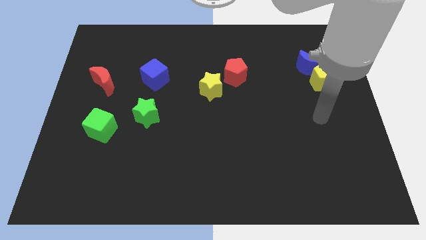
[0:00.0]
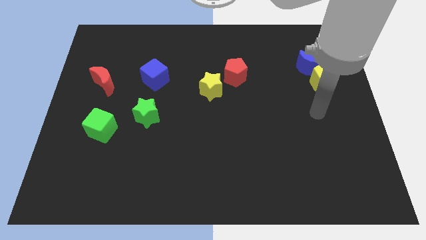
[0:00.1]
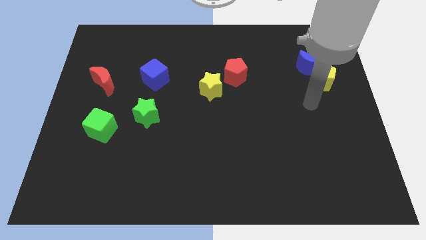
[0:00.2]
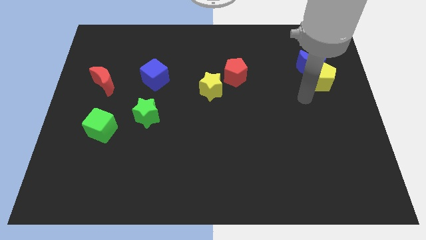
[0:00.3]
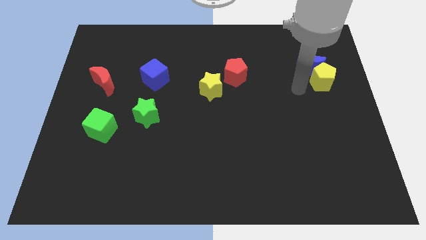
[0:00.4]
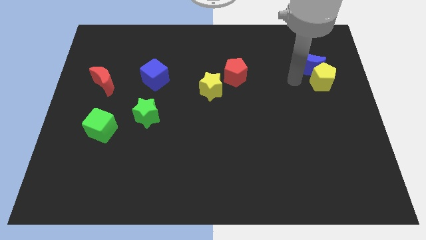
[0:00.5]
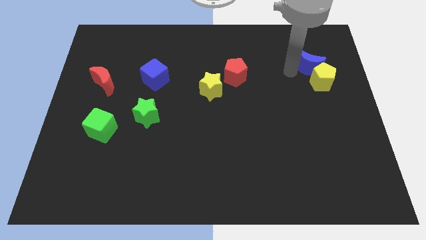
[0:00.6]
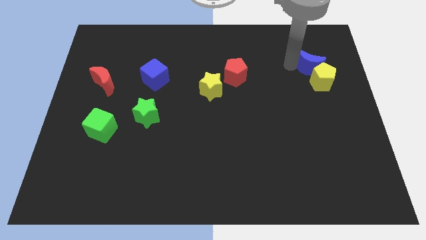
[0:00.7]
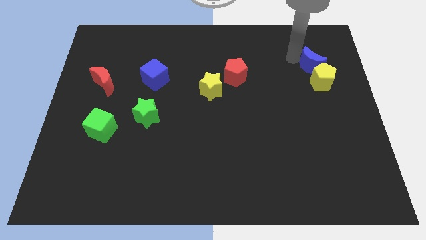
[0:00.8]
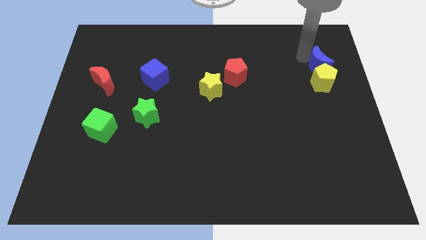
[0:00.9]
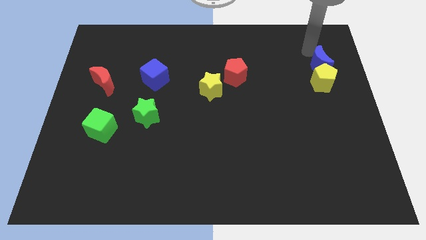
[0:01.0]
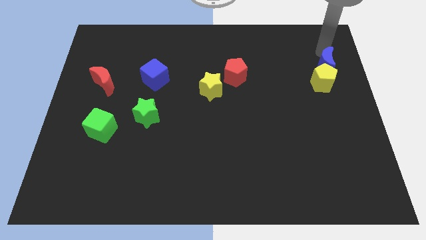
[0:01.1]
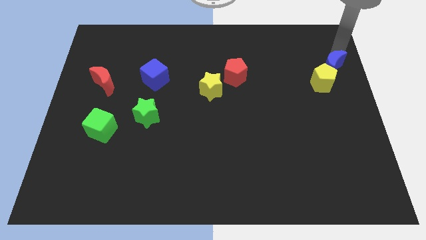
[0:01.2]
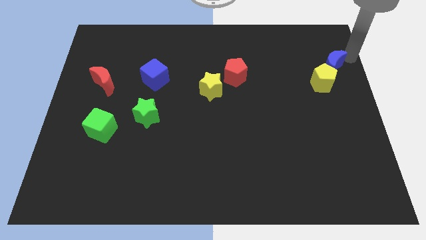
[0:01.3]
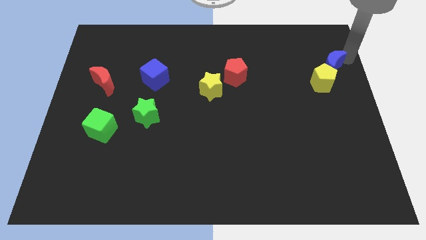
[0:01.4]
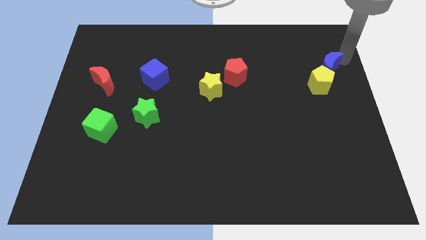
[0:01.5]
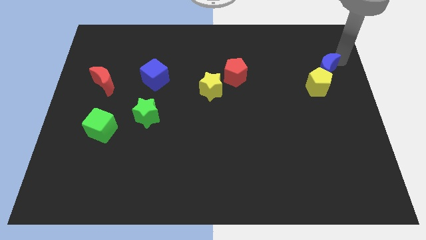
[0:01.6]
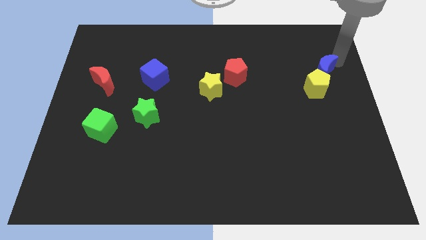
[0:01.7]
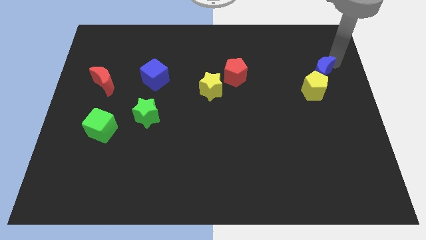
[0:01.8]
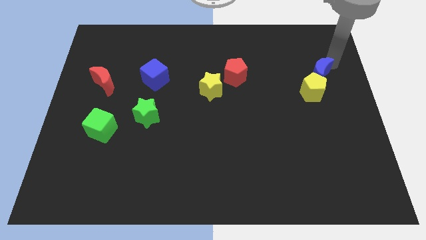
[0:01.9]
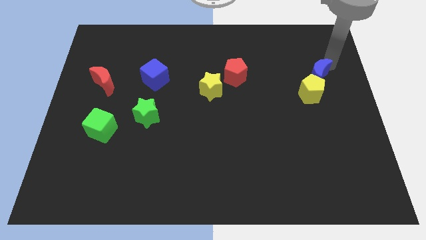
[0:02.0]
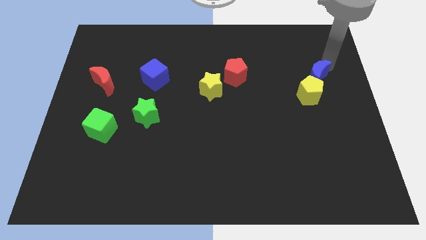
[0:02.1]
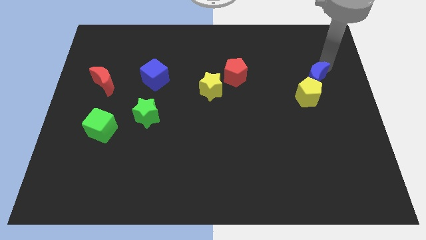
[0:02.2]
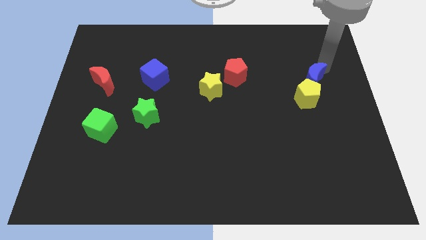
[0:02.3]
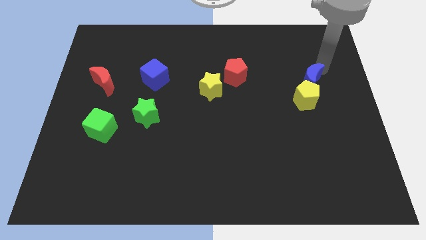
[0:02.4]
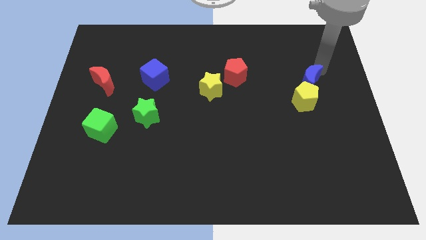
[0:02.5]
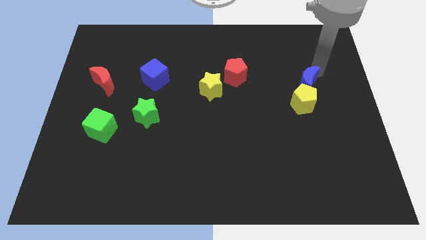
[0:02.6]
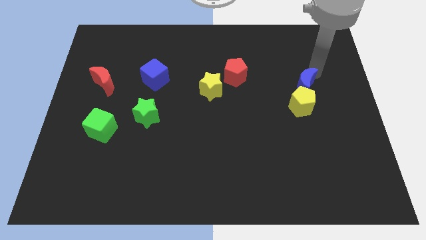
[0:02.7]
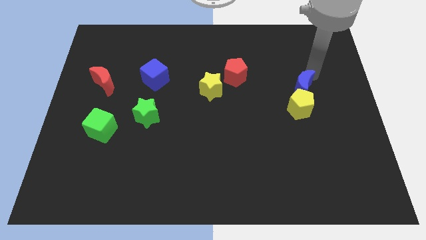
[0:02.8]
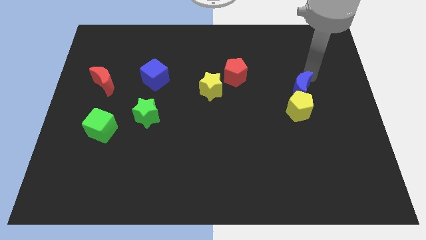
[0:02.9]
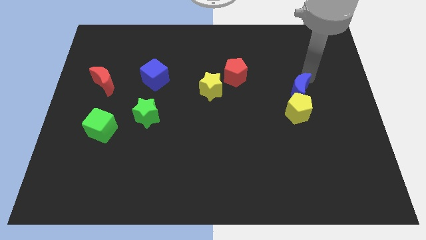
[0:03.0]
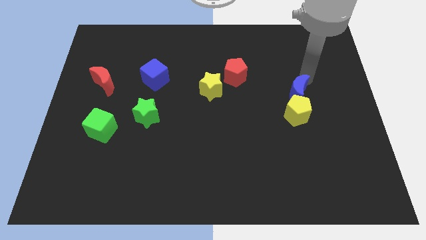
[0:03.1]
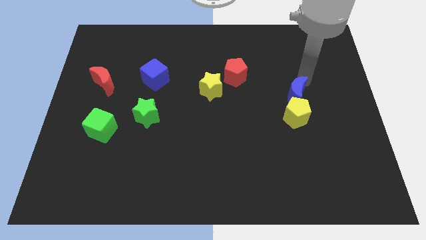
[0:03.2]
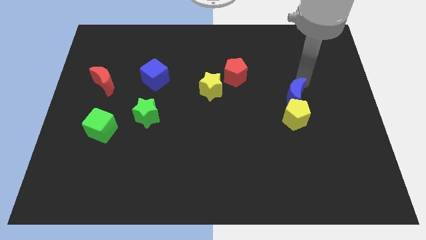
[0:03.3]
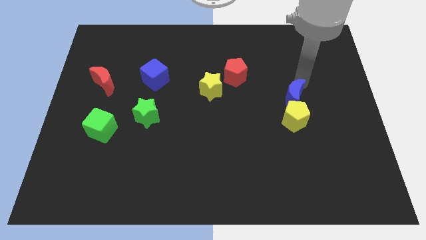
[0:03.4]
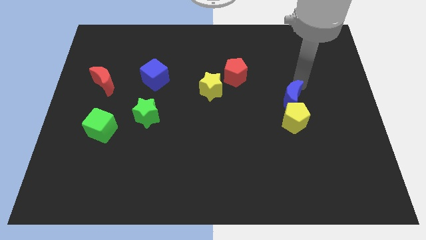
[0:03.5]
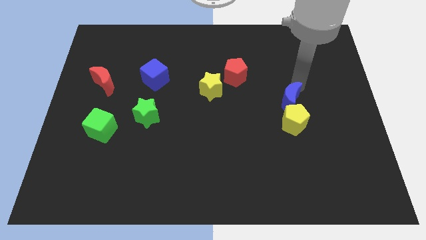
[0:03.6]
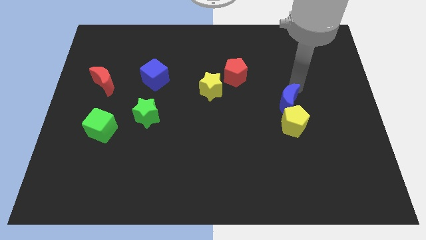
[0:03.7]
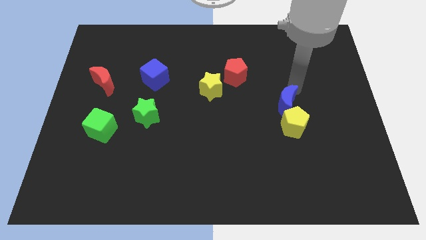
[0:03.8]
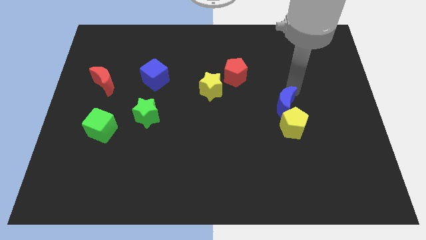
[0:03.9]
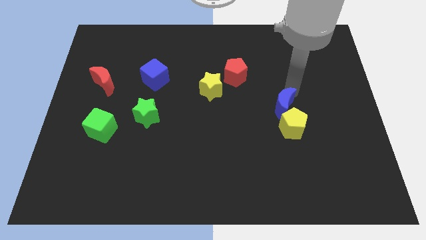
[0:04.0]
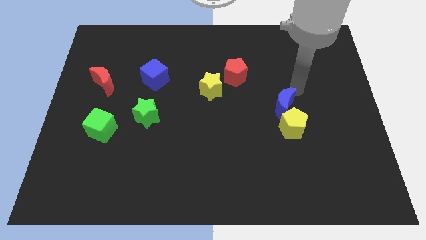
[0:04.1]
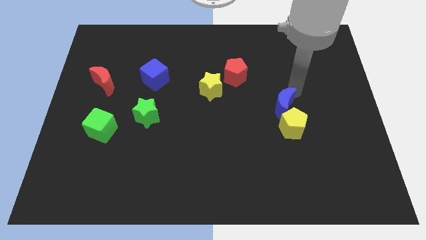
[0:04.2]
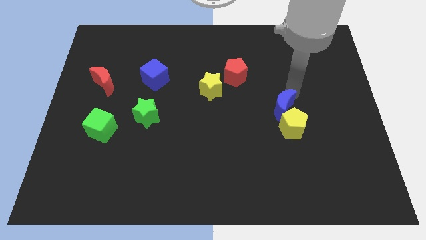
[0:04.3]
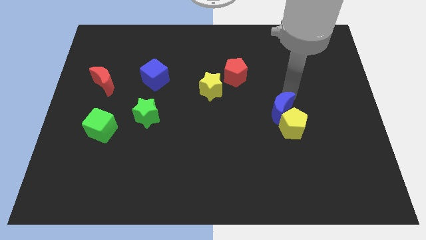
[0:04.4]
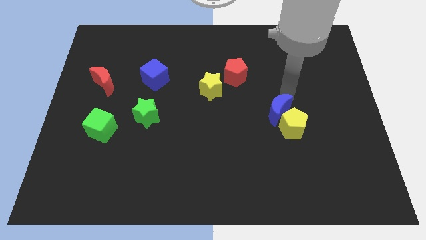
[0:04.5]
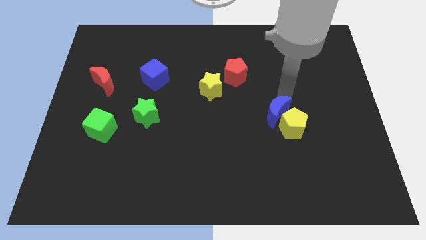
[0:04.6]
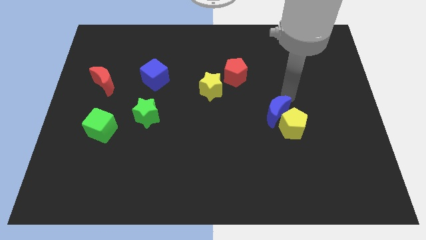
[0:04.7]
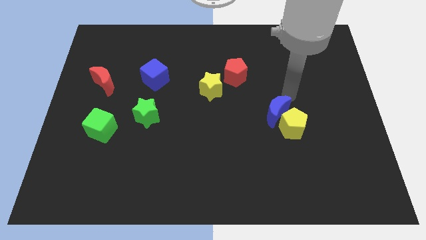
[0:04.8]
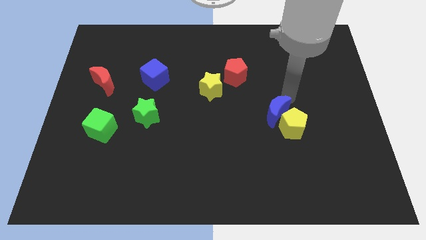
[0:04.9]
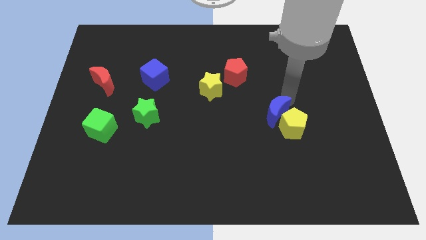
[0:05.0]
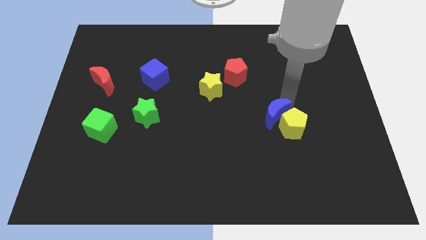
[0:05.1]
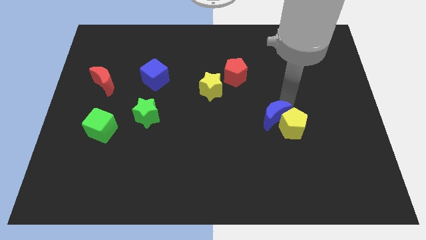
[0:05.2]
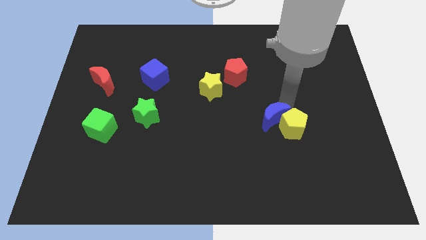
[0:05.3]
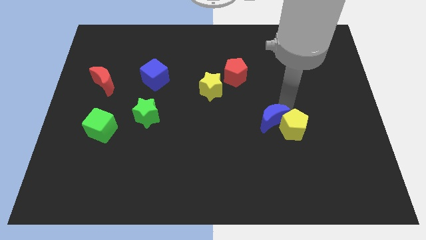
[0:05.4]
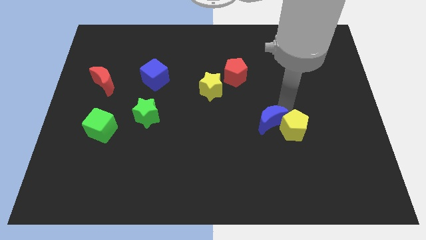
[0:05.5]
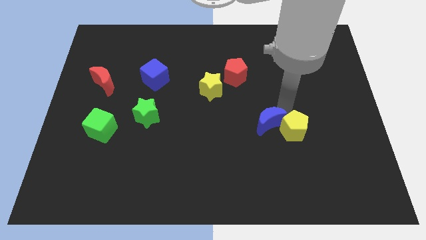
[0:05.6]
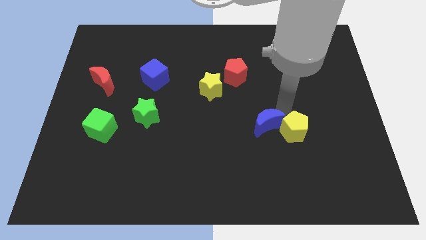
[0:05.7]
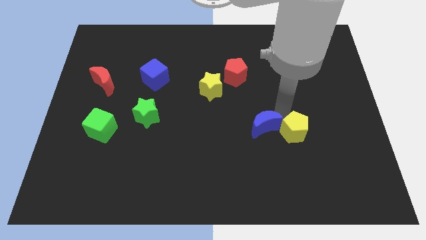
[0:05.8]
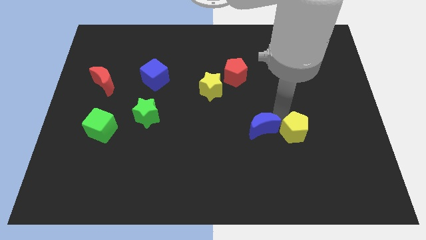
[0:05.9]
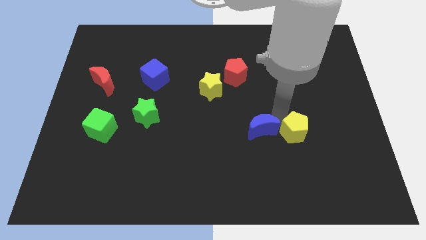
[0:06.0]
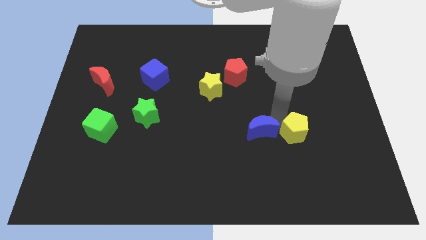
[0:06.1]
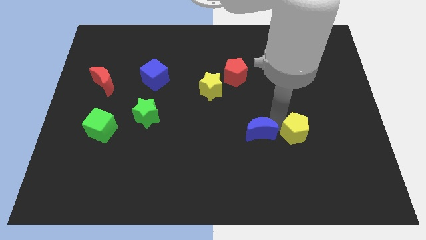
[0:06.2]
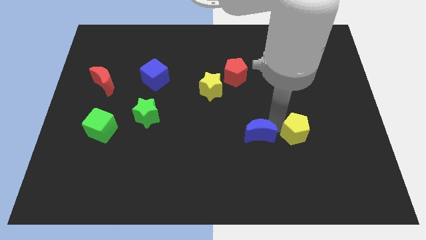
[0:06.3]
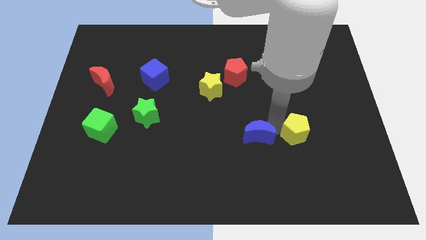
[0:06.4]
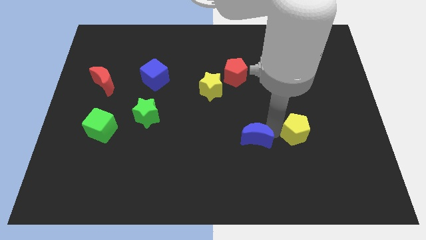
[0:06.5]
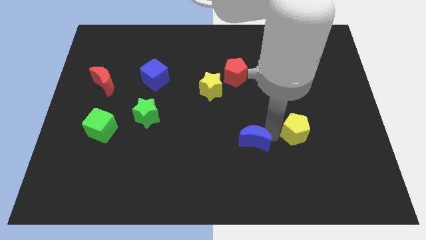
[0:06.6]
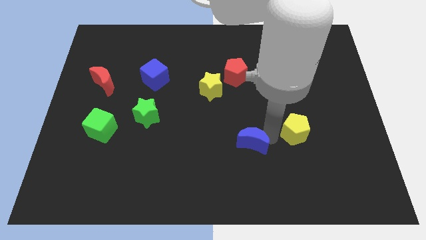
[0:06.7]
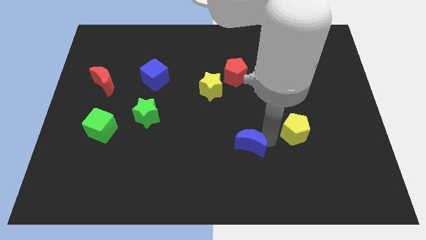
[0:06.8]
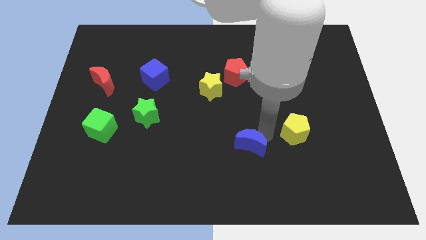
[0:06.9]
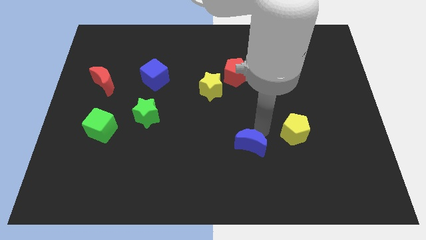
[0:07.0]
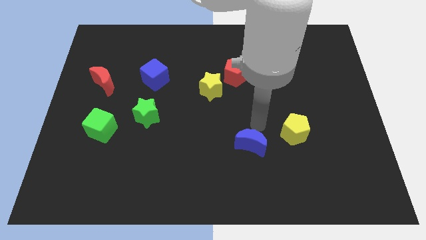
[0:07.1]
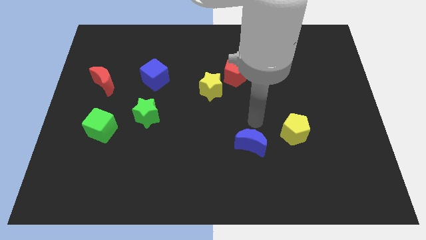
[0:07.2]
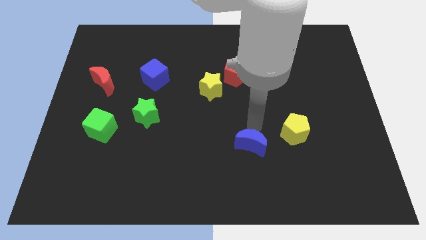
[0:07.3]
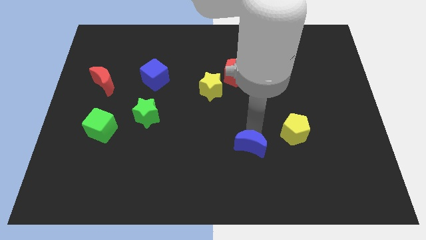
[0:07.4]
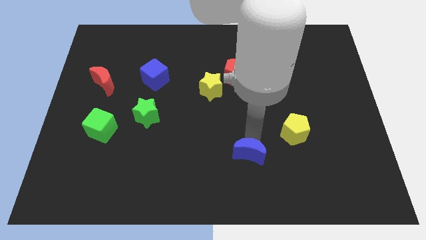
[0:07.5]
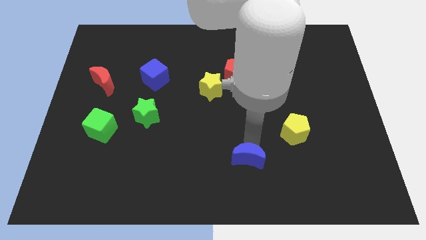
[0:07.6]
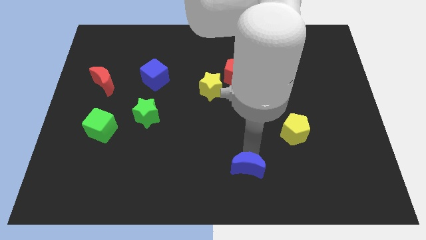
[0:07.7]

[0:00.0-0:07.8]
put the blue moon to the bottom side
